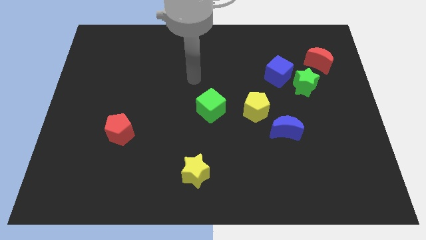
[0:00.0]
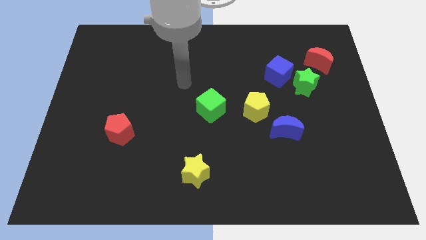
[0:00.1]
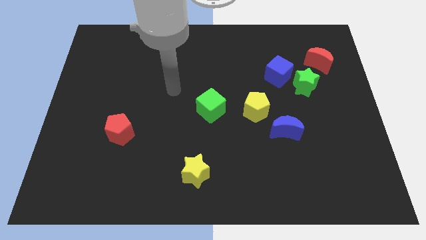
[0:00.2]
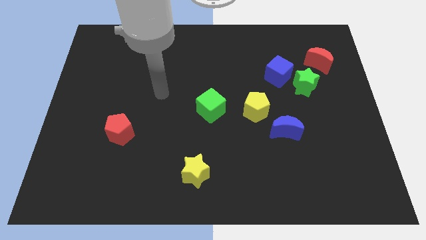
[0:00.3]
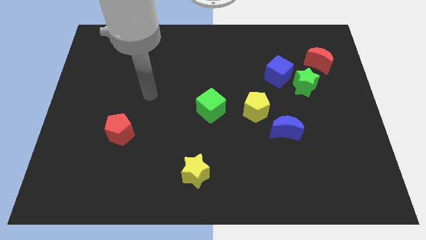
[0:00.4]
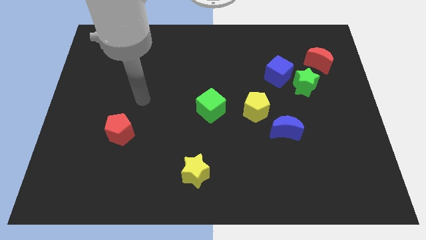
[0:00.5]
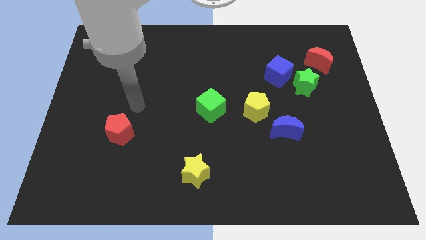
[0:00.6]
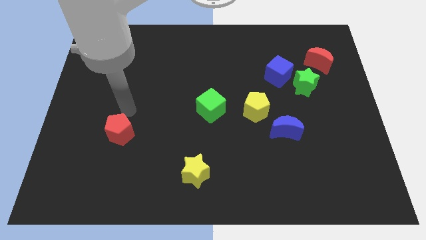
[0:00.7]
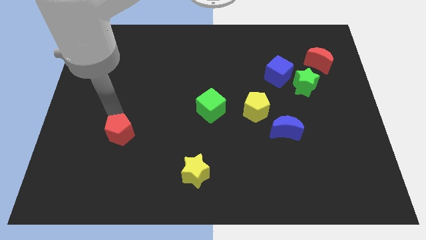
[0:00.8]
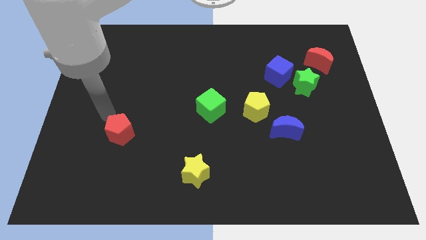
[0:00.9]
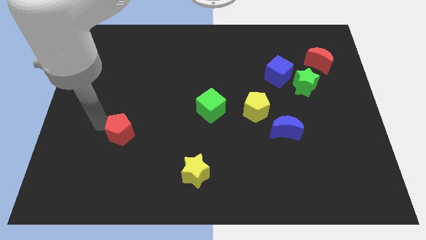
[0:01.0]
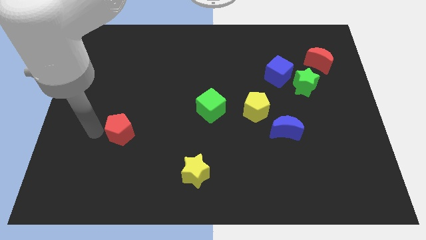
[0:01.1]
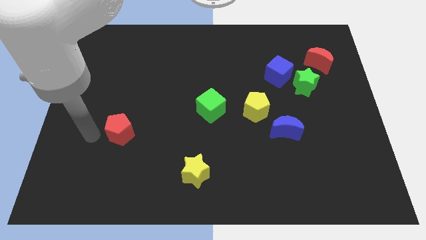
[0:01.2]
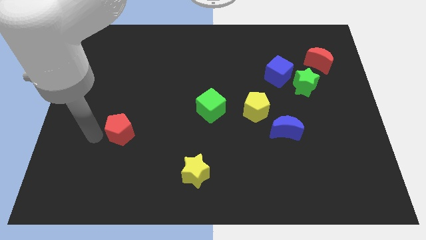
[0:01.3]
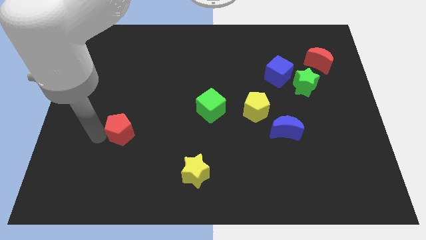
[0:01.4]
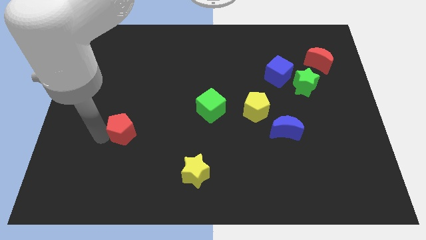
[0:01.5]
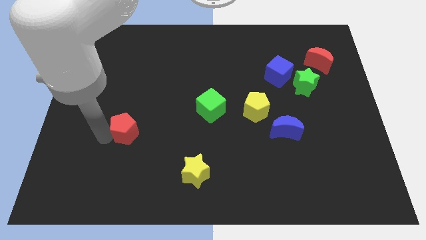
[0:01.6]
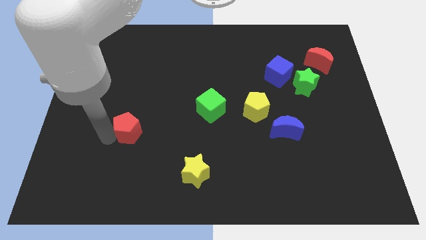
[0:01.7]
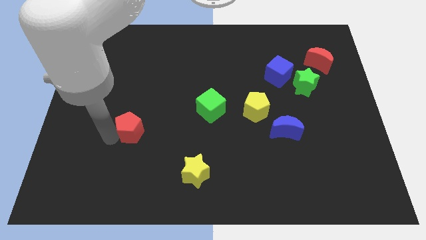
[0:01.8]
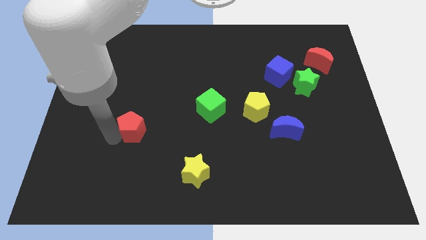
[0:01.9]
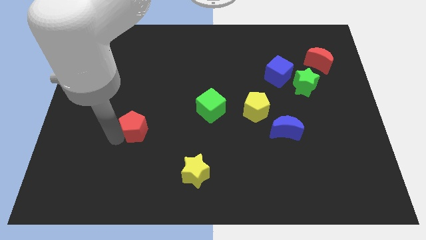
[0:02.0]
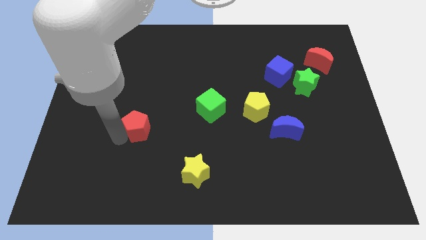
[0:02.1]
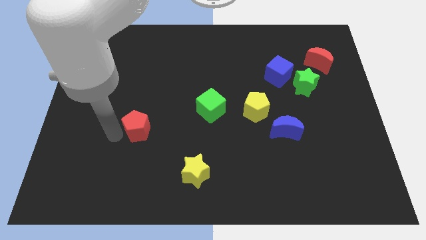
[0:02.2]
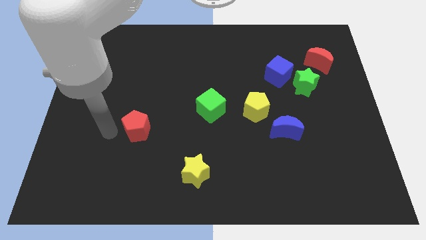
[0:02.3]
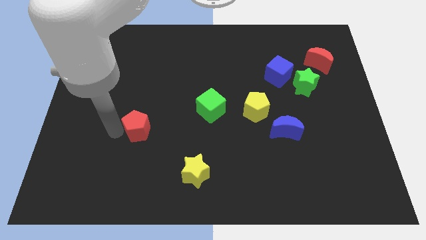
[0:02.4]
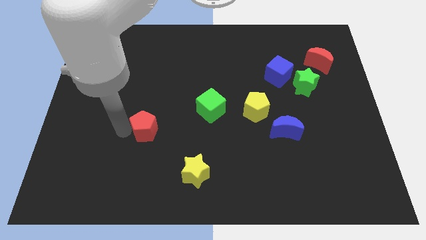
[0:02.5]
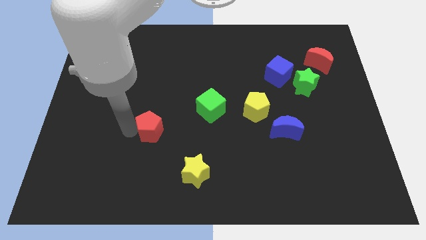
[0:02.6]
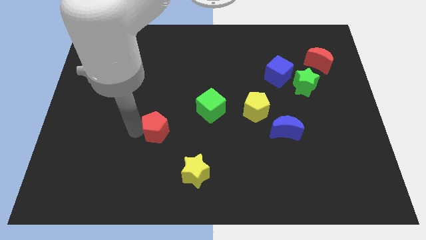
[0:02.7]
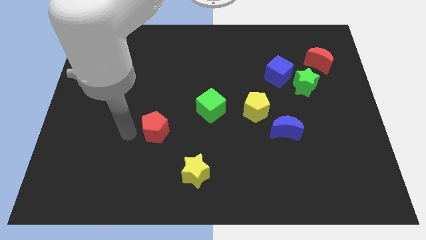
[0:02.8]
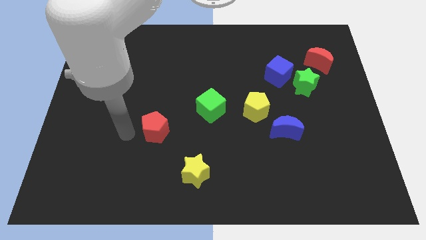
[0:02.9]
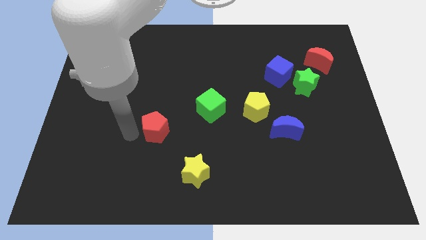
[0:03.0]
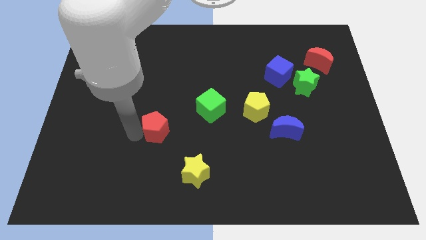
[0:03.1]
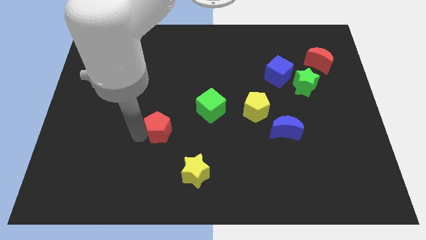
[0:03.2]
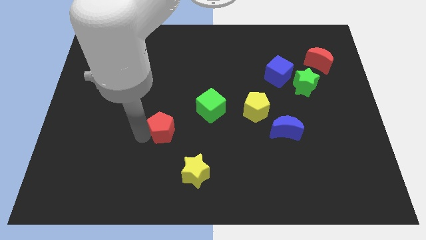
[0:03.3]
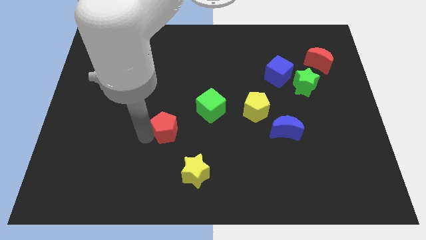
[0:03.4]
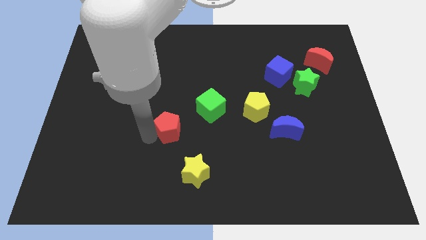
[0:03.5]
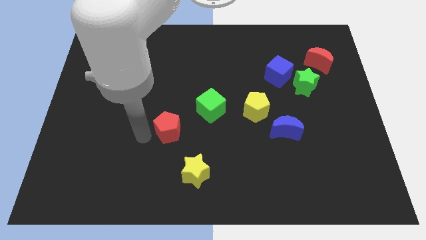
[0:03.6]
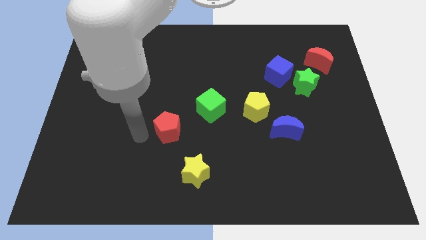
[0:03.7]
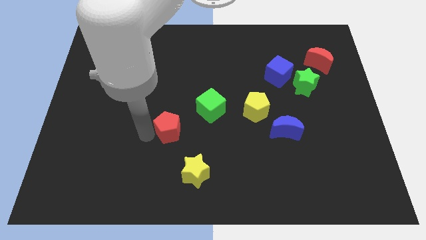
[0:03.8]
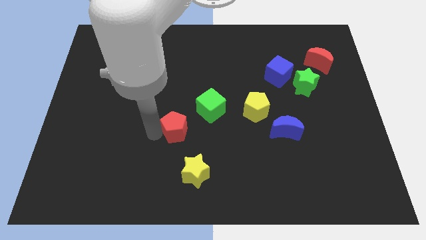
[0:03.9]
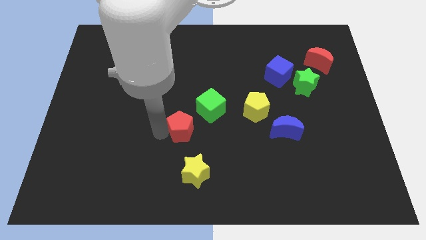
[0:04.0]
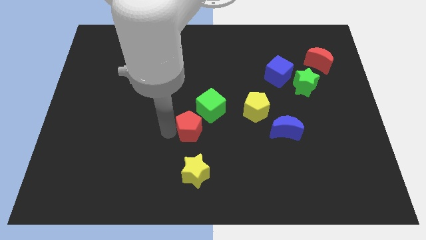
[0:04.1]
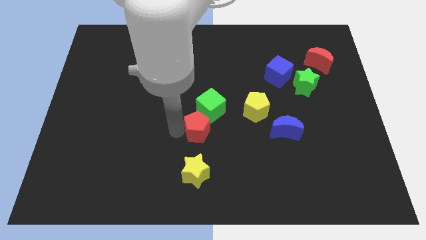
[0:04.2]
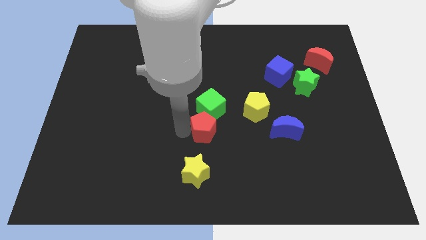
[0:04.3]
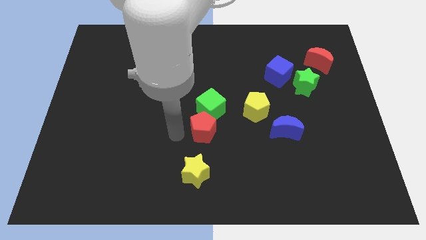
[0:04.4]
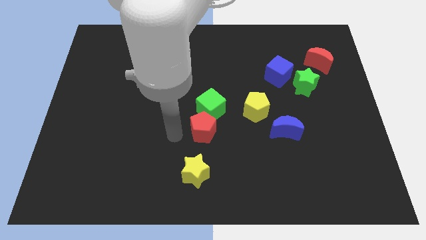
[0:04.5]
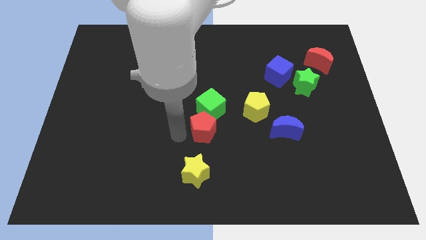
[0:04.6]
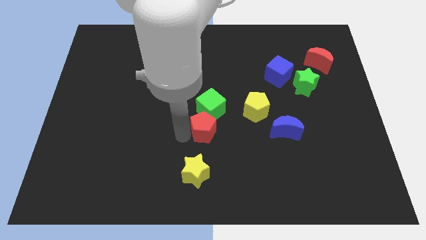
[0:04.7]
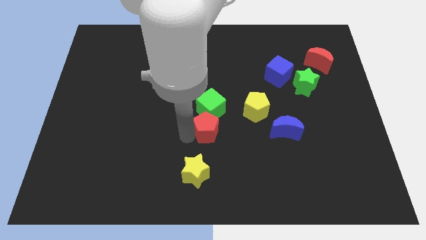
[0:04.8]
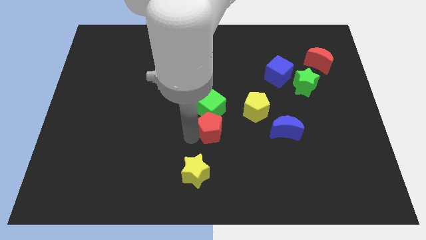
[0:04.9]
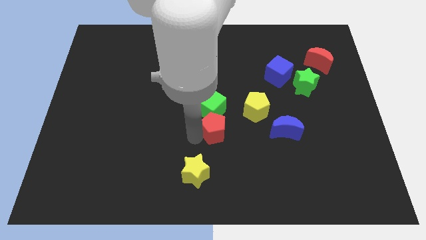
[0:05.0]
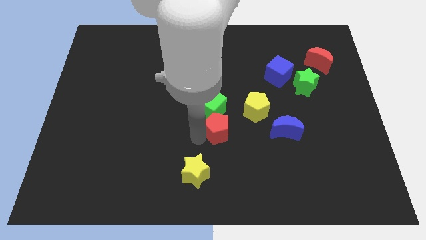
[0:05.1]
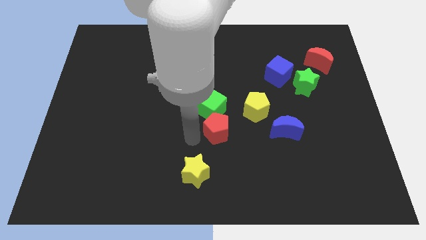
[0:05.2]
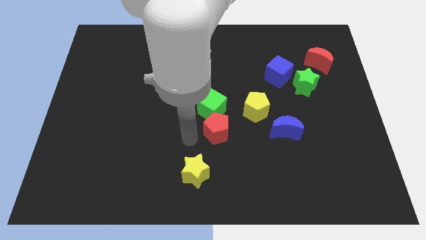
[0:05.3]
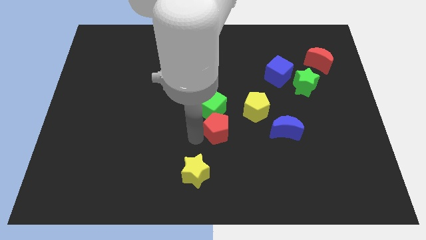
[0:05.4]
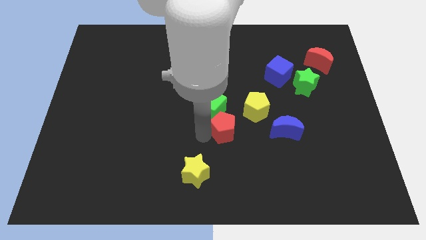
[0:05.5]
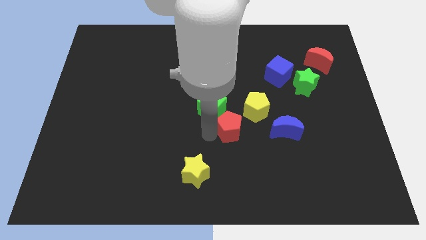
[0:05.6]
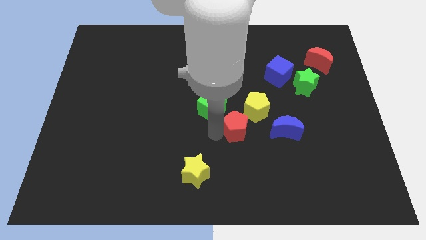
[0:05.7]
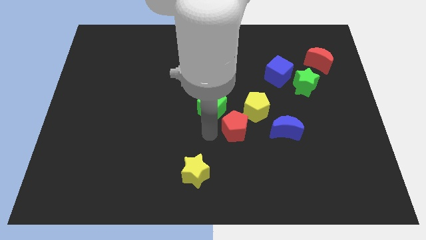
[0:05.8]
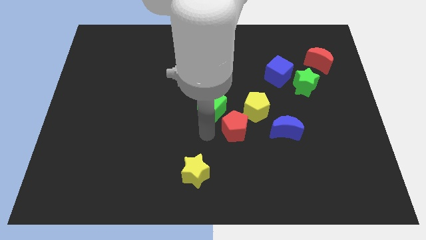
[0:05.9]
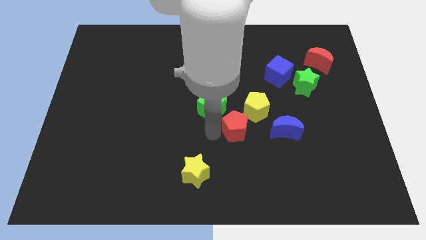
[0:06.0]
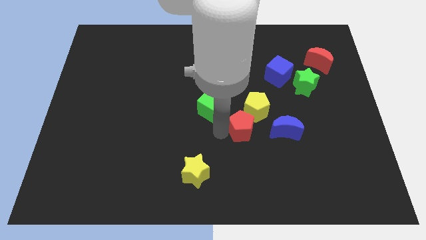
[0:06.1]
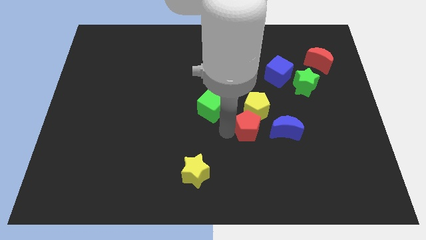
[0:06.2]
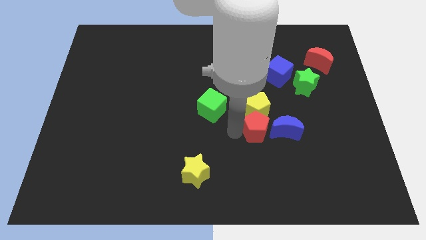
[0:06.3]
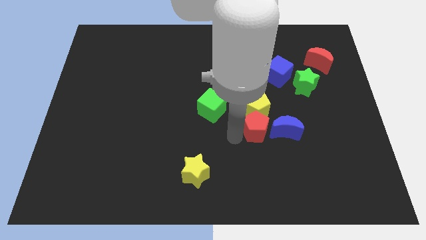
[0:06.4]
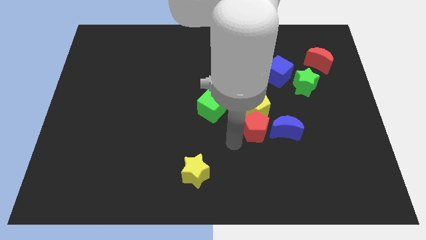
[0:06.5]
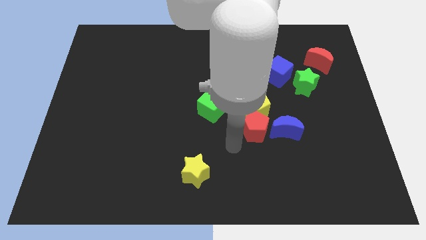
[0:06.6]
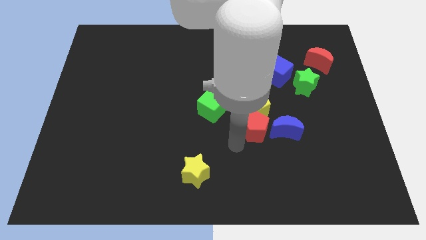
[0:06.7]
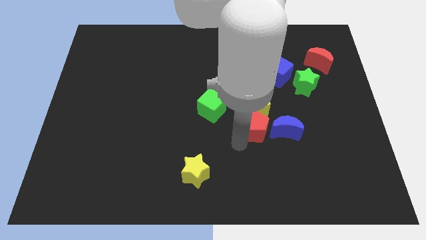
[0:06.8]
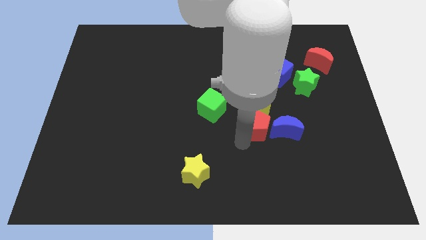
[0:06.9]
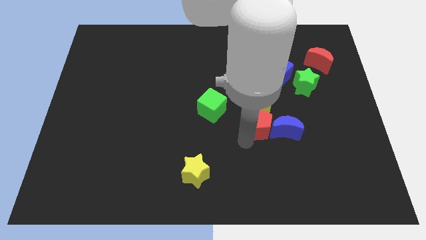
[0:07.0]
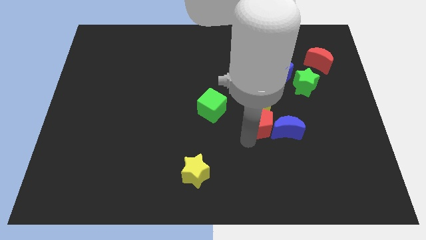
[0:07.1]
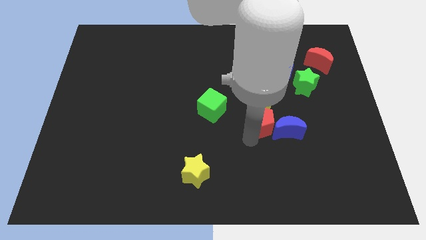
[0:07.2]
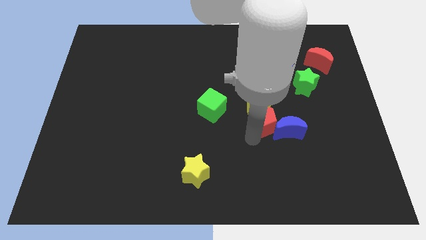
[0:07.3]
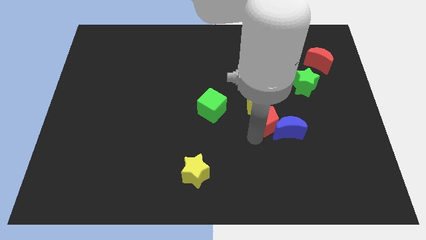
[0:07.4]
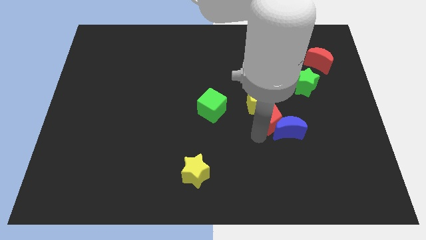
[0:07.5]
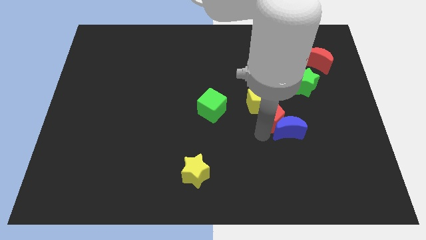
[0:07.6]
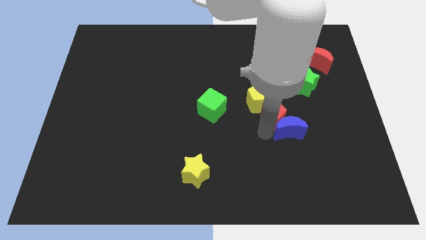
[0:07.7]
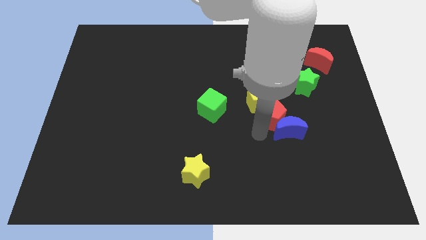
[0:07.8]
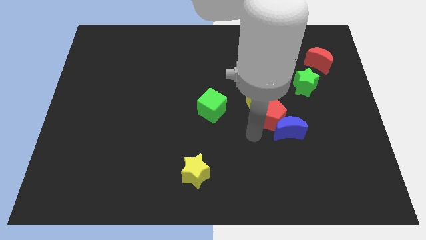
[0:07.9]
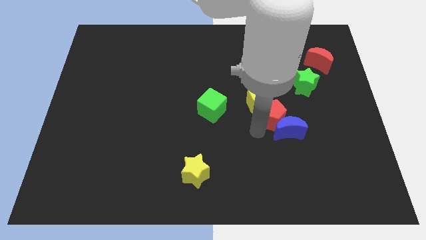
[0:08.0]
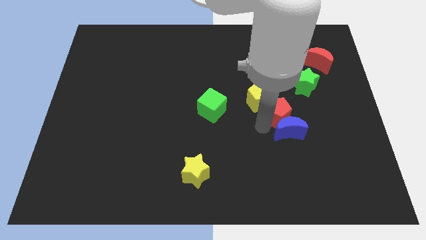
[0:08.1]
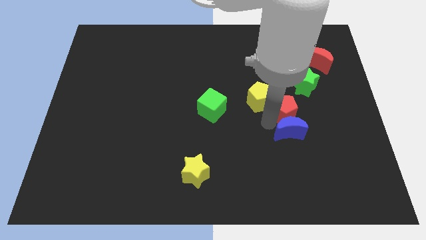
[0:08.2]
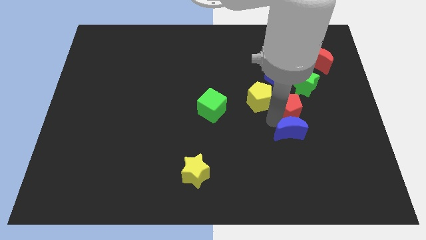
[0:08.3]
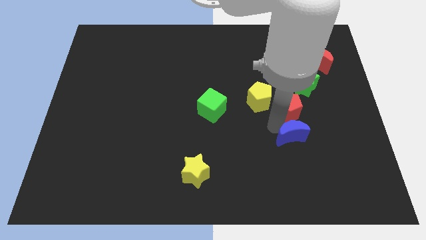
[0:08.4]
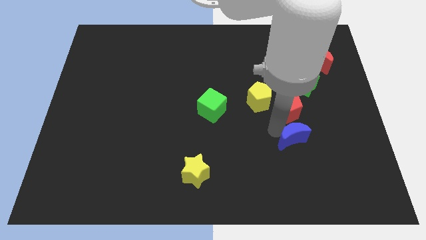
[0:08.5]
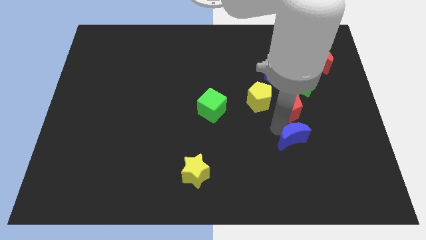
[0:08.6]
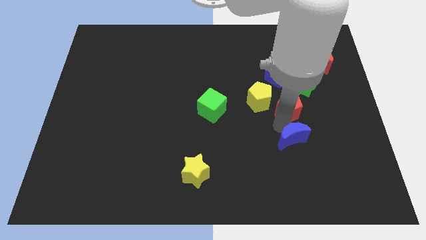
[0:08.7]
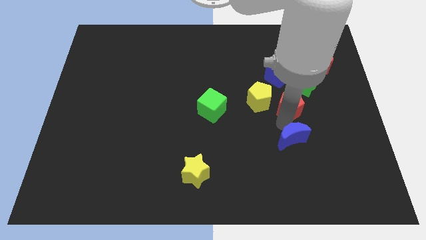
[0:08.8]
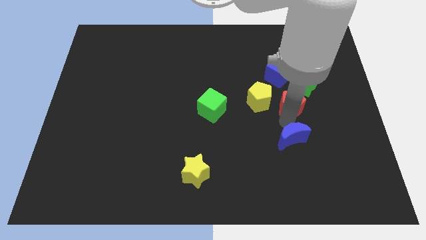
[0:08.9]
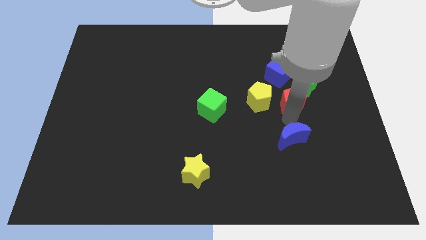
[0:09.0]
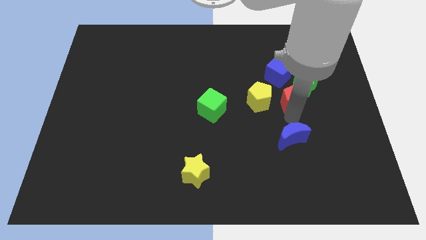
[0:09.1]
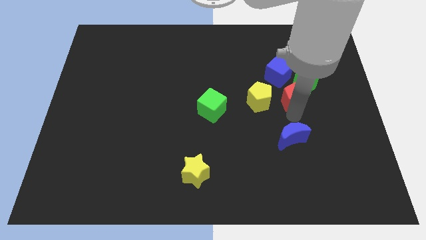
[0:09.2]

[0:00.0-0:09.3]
push the red pentagon towards the green star
